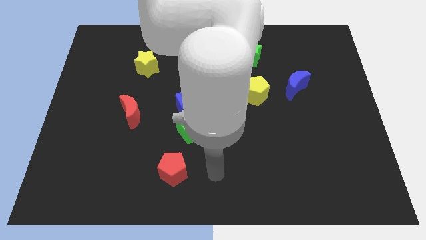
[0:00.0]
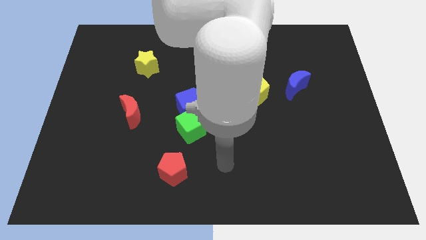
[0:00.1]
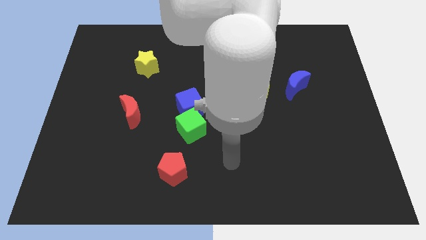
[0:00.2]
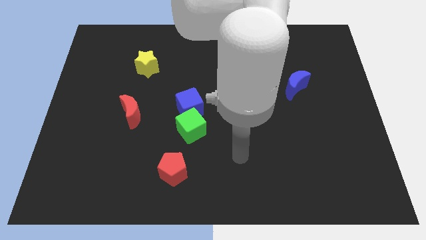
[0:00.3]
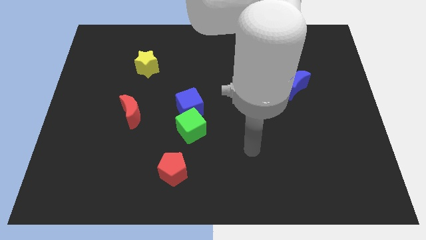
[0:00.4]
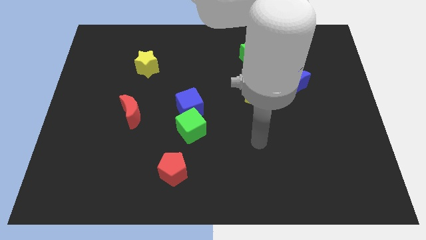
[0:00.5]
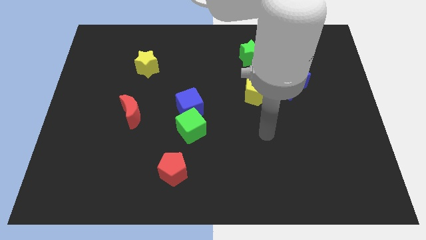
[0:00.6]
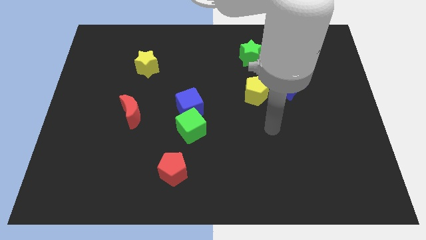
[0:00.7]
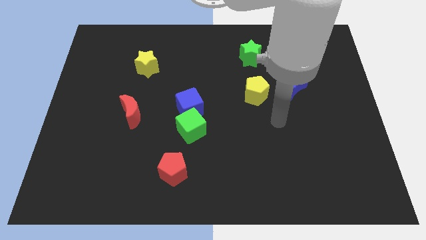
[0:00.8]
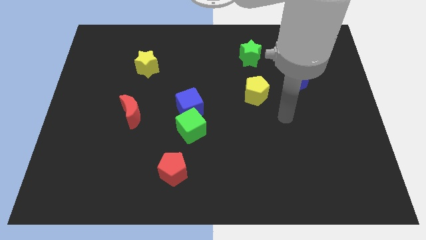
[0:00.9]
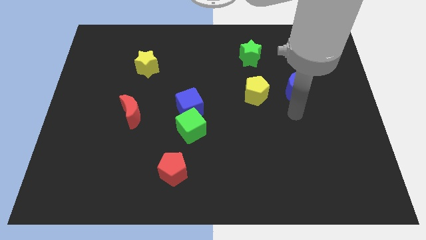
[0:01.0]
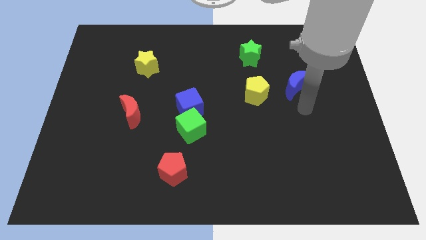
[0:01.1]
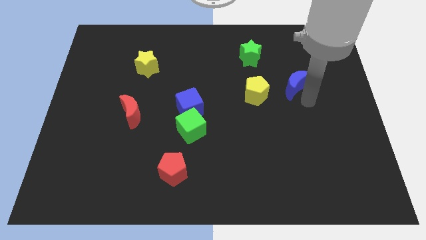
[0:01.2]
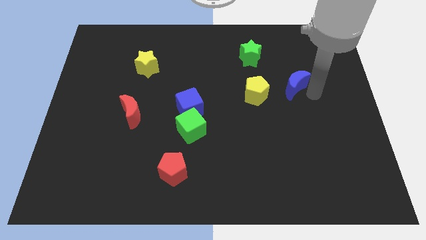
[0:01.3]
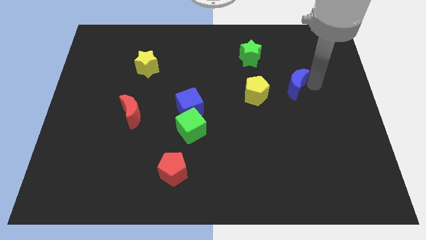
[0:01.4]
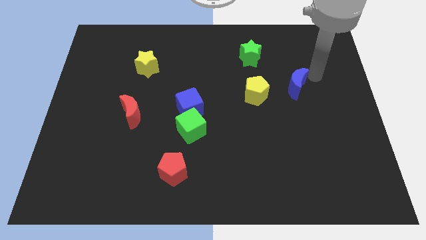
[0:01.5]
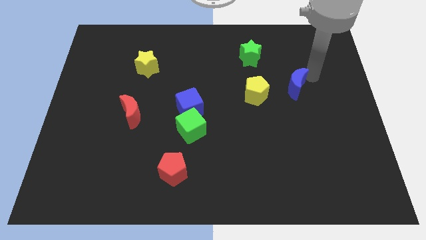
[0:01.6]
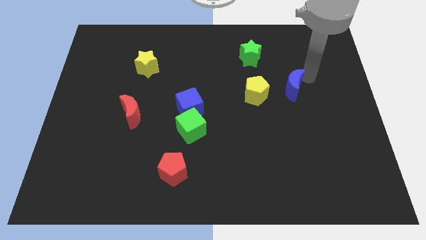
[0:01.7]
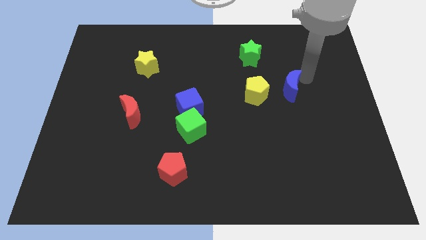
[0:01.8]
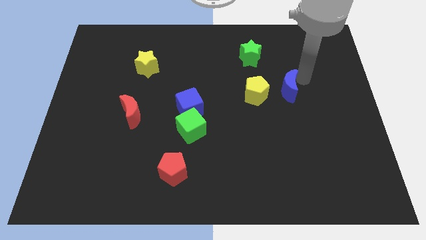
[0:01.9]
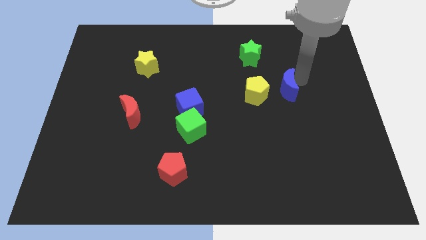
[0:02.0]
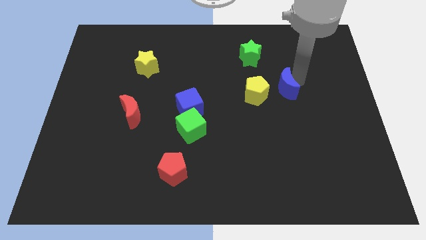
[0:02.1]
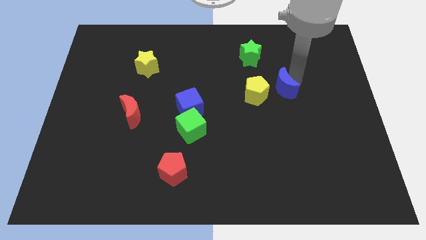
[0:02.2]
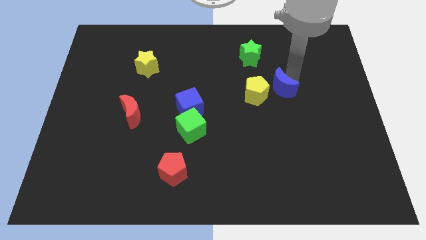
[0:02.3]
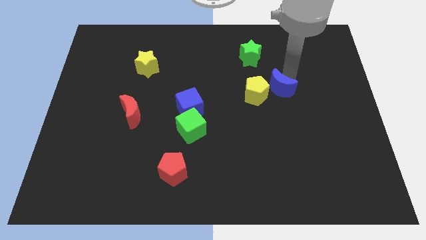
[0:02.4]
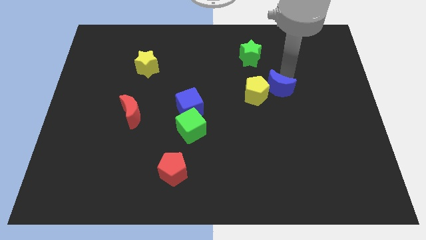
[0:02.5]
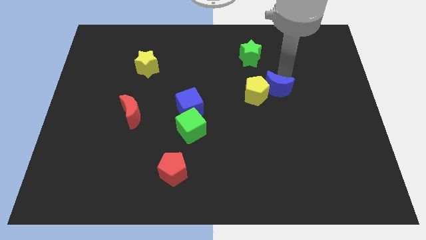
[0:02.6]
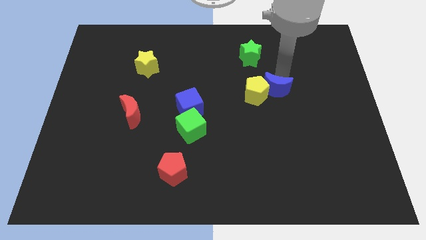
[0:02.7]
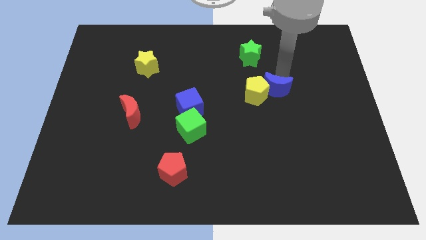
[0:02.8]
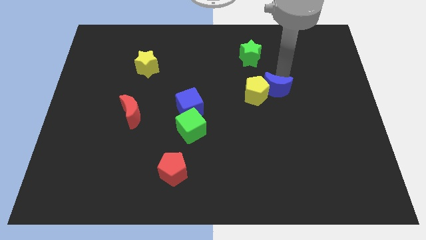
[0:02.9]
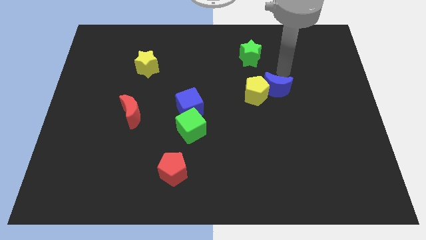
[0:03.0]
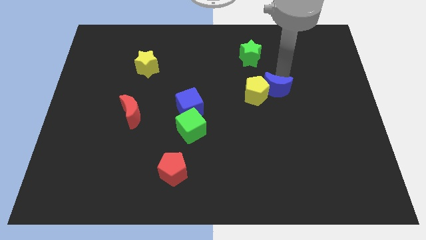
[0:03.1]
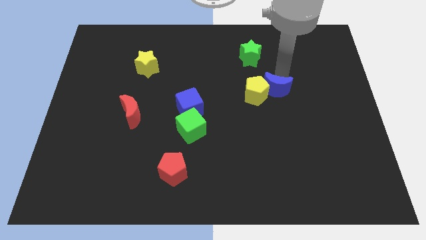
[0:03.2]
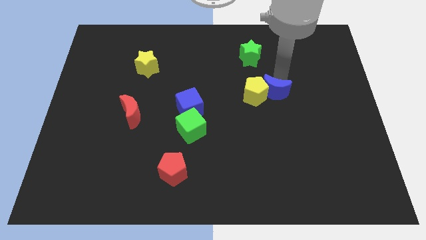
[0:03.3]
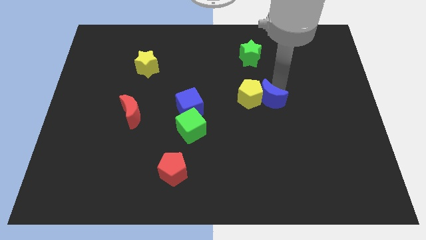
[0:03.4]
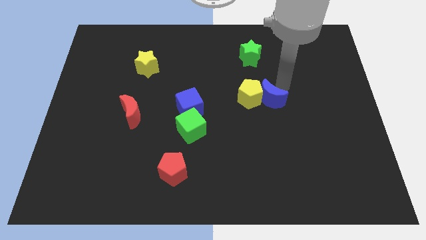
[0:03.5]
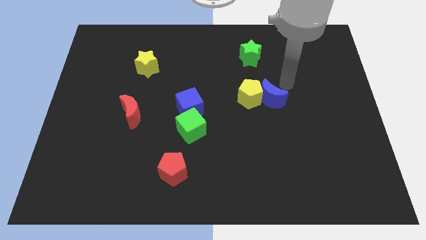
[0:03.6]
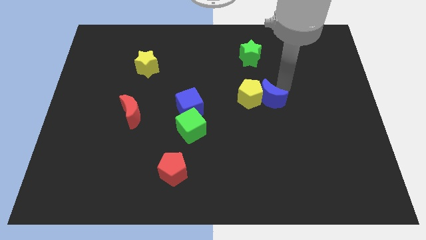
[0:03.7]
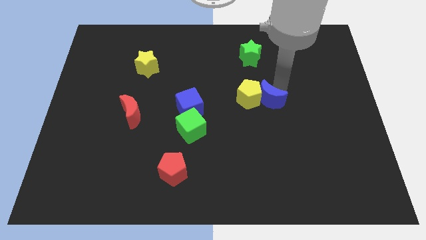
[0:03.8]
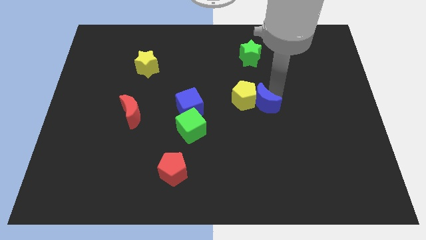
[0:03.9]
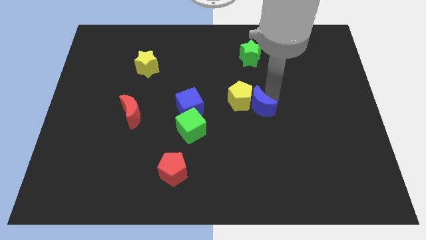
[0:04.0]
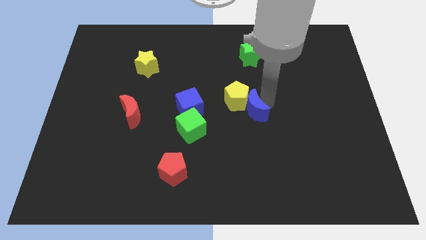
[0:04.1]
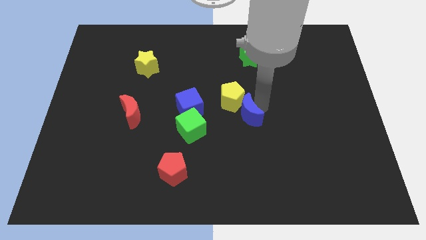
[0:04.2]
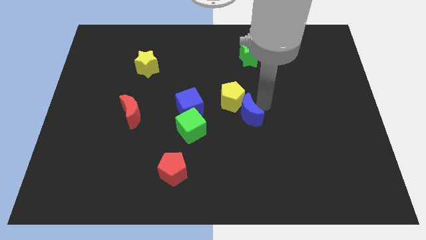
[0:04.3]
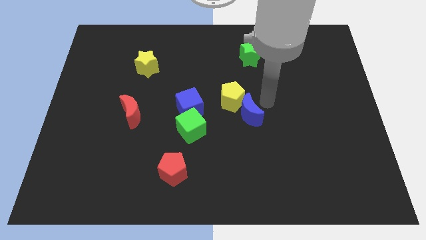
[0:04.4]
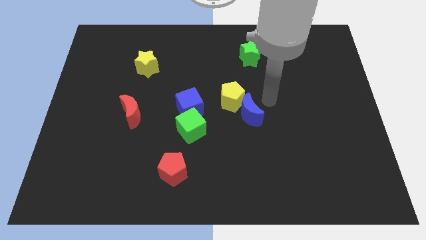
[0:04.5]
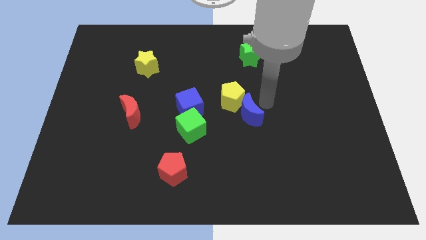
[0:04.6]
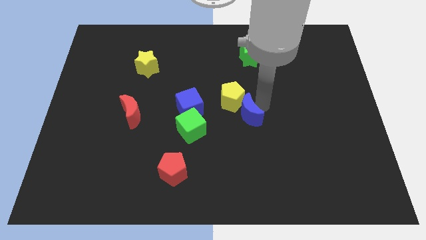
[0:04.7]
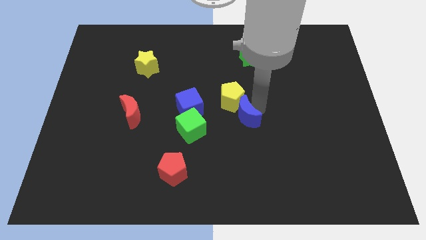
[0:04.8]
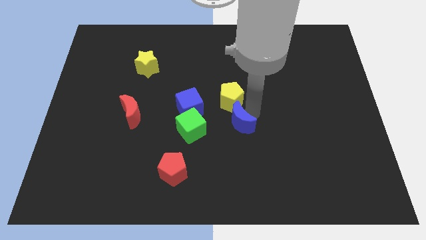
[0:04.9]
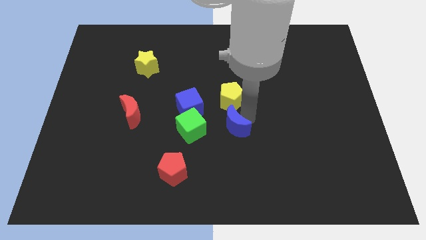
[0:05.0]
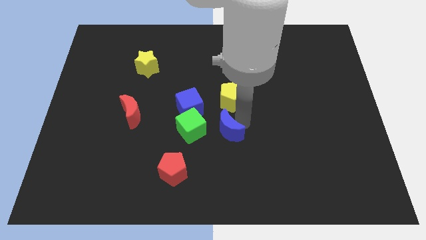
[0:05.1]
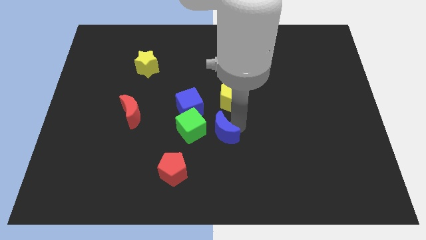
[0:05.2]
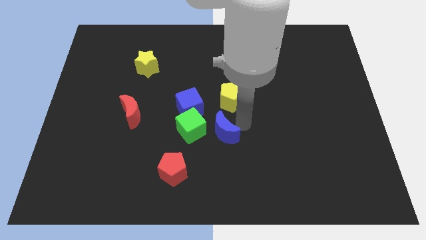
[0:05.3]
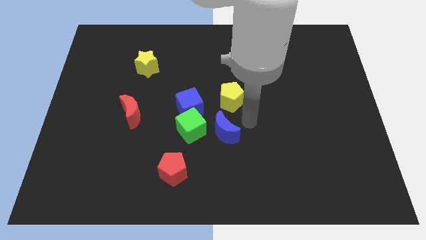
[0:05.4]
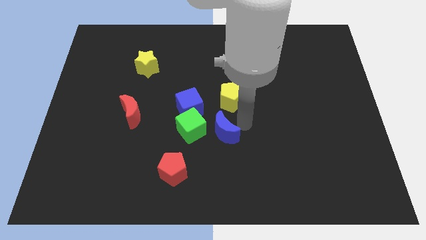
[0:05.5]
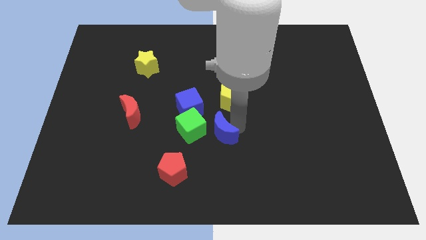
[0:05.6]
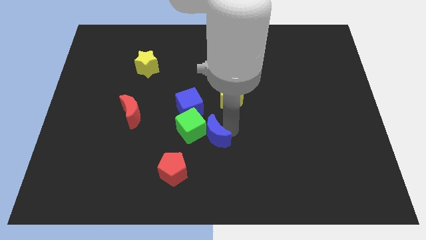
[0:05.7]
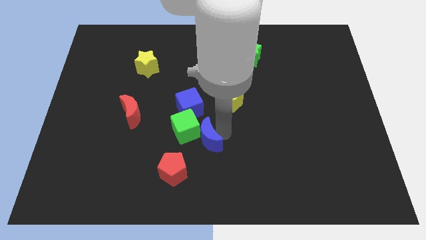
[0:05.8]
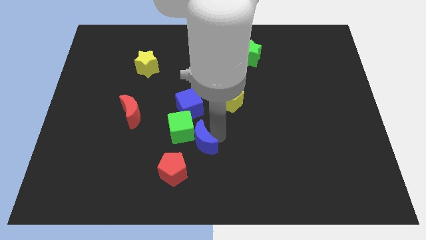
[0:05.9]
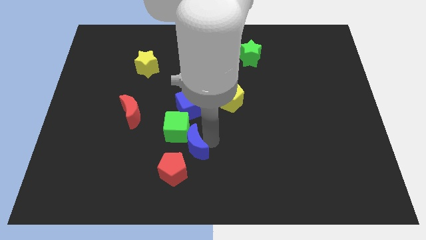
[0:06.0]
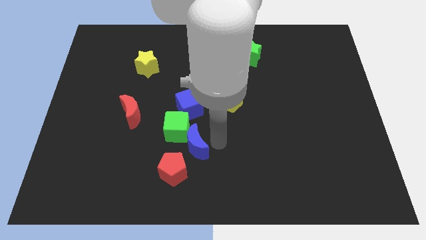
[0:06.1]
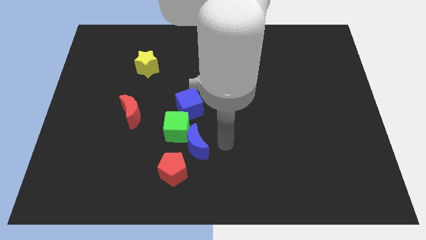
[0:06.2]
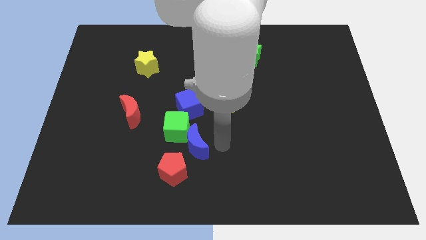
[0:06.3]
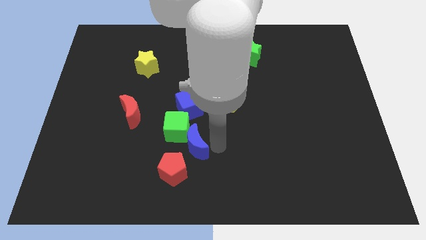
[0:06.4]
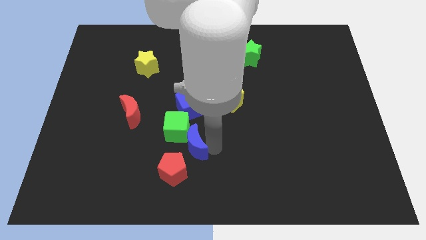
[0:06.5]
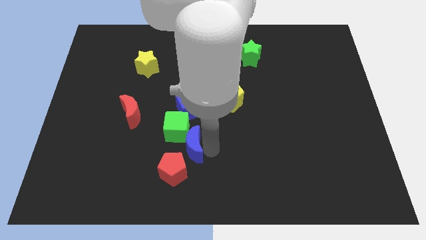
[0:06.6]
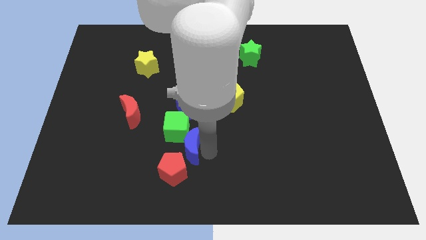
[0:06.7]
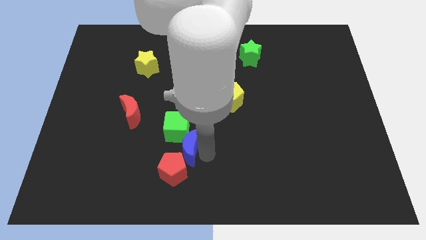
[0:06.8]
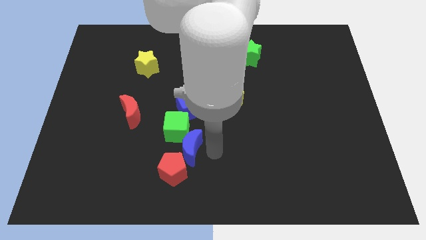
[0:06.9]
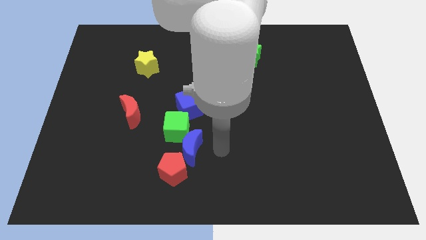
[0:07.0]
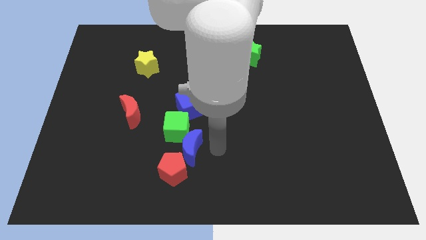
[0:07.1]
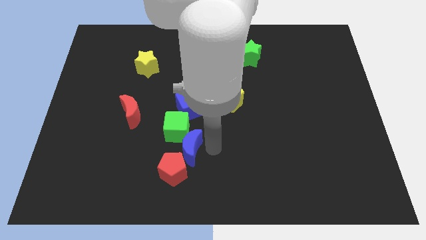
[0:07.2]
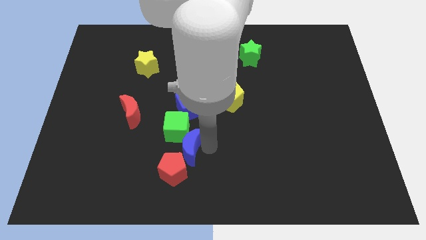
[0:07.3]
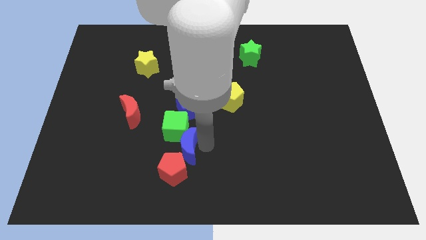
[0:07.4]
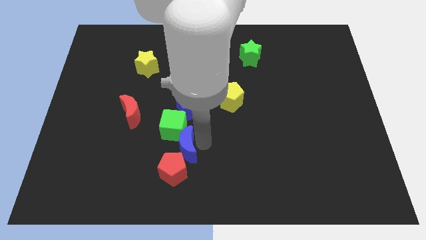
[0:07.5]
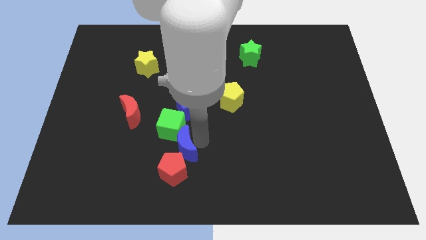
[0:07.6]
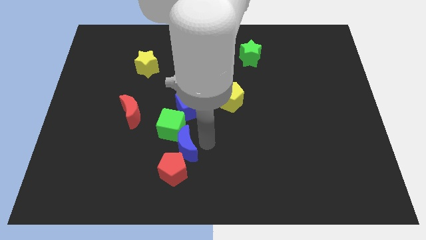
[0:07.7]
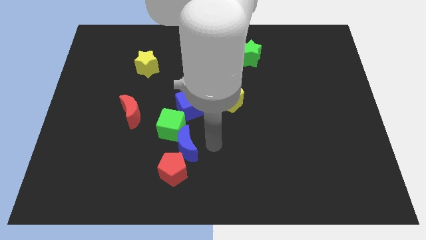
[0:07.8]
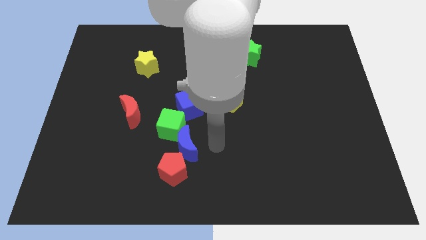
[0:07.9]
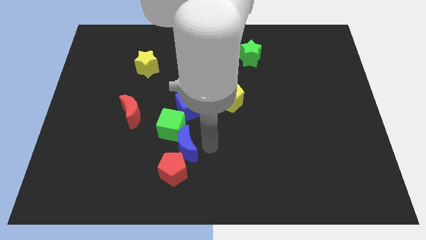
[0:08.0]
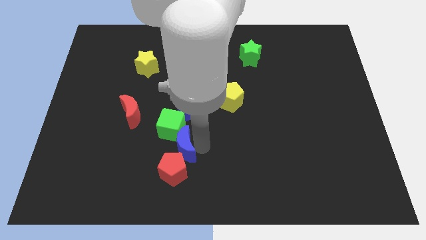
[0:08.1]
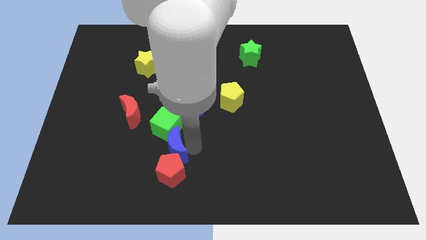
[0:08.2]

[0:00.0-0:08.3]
push the blue moon diagonally up and to the left of the red pentagon
